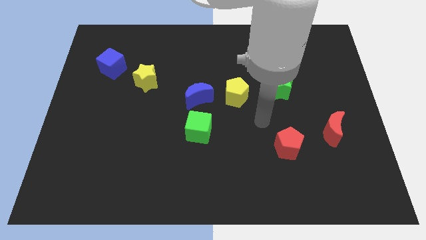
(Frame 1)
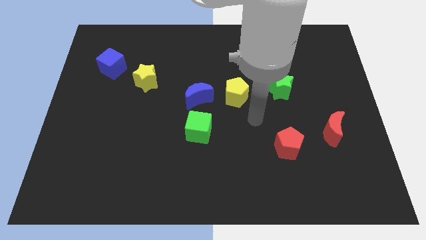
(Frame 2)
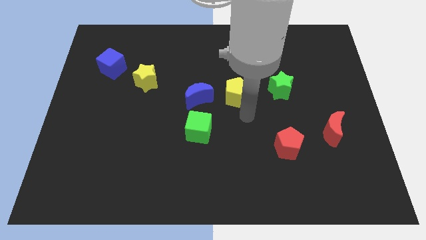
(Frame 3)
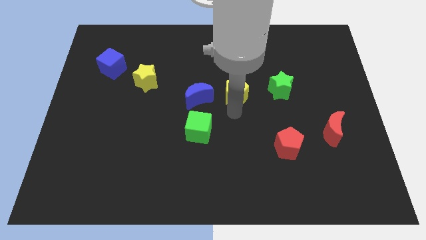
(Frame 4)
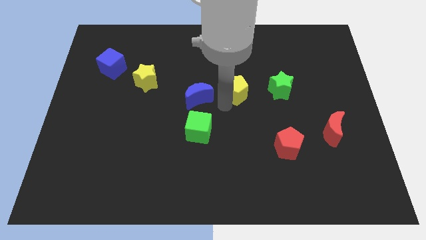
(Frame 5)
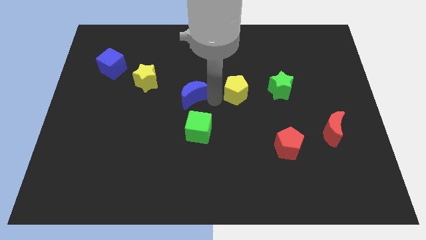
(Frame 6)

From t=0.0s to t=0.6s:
pull the yellow pentagon apart from the blue moon

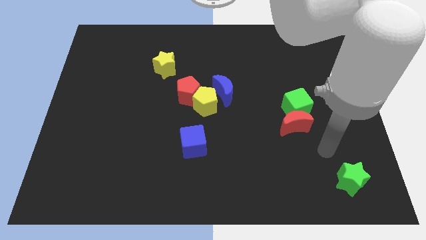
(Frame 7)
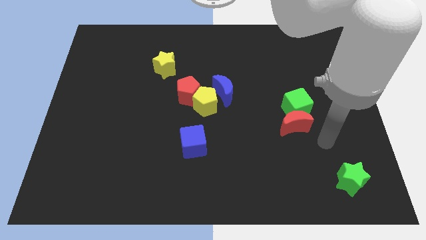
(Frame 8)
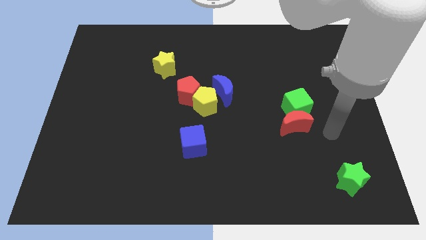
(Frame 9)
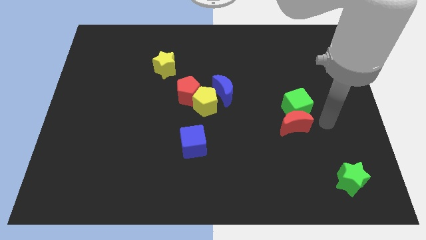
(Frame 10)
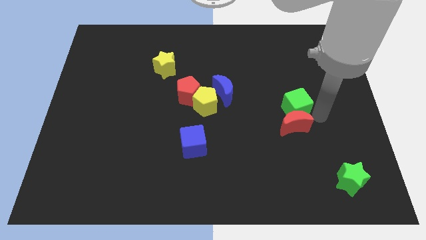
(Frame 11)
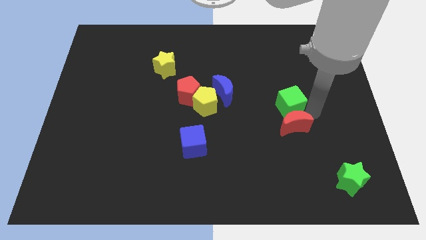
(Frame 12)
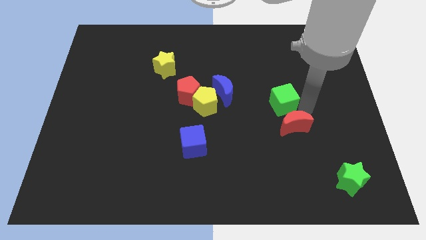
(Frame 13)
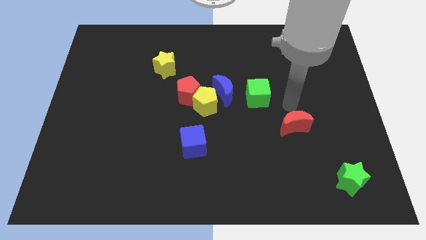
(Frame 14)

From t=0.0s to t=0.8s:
pull the red moon apart from the green cube

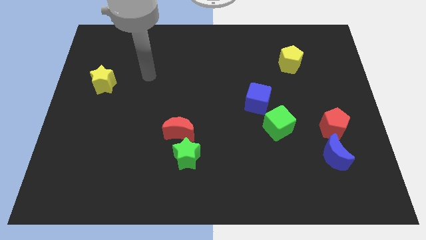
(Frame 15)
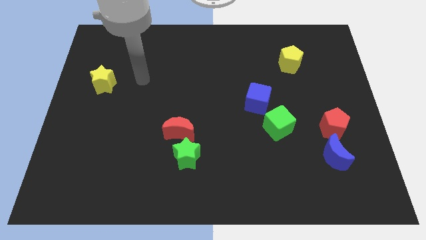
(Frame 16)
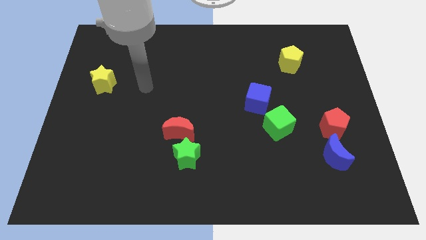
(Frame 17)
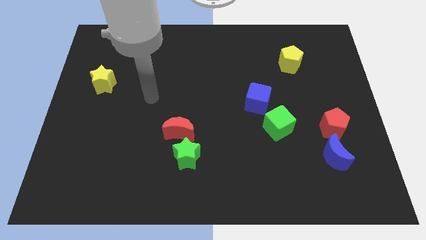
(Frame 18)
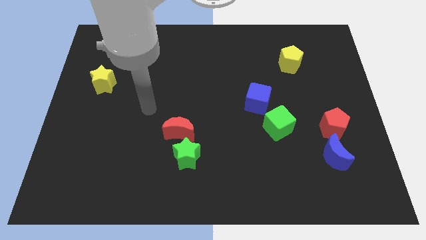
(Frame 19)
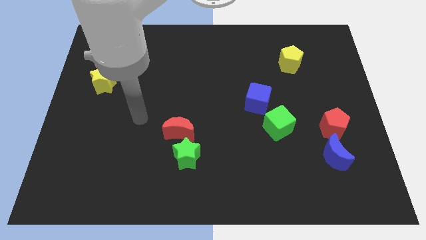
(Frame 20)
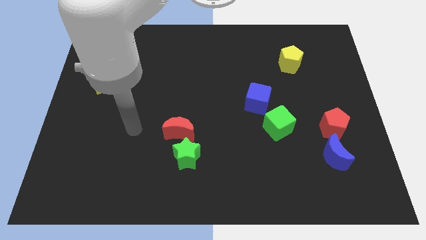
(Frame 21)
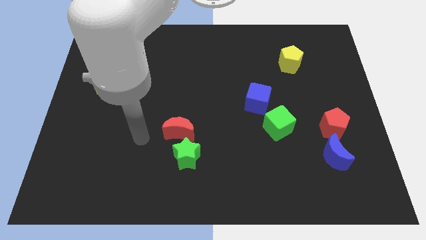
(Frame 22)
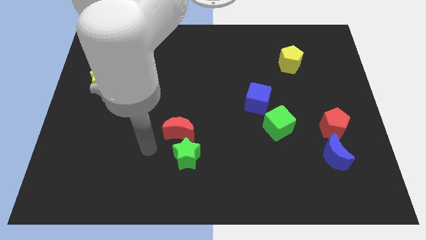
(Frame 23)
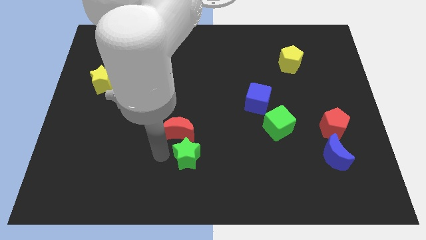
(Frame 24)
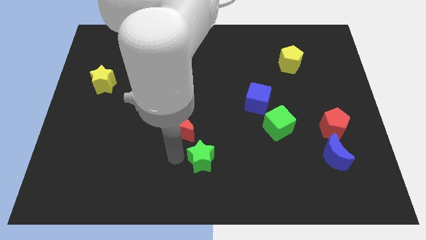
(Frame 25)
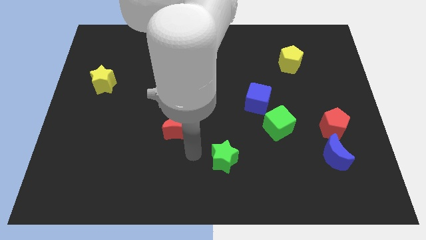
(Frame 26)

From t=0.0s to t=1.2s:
move the red moon away from the green star

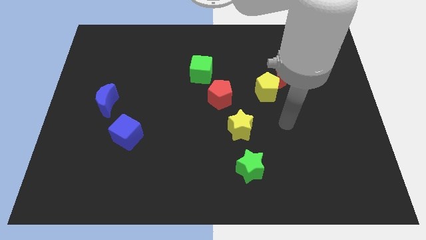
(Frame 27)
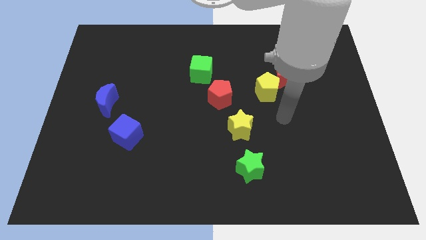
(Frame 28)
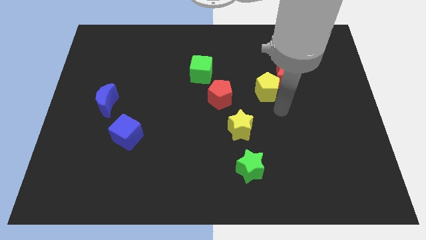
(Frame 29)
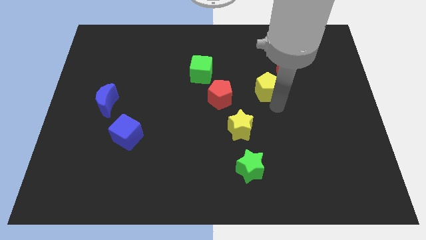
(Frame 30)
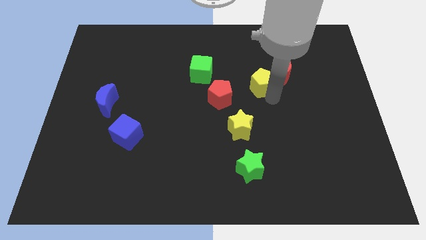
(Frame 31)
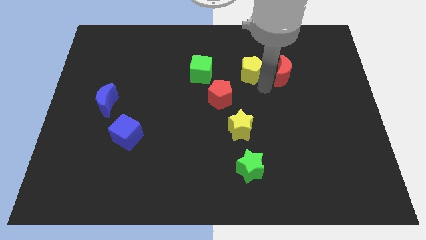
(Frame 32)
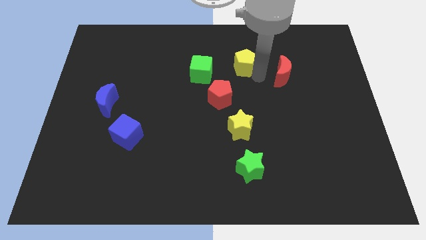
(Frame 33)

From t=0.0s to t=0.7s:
pull the red moon apart from the yellow pentagon

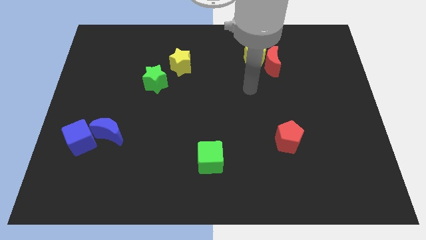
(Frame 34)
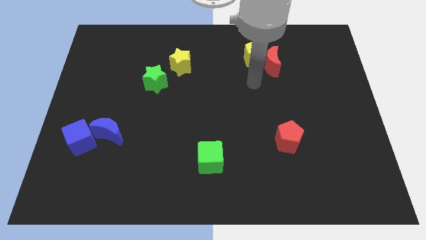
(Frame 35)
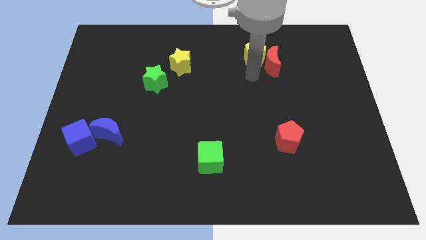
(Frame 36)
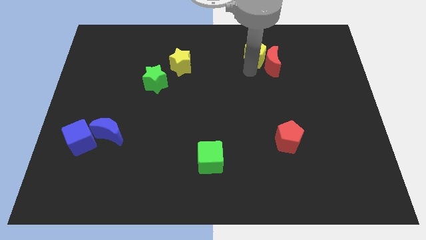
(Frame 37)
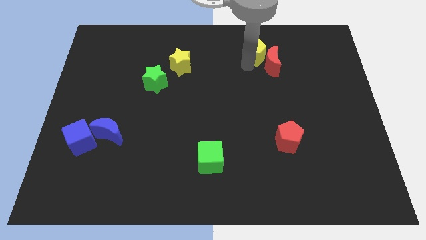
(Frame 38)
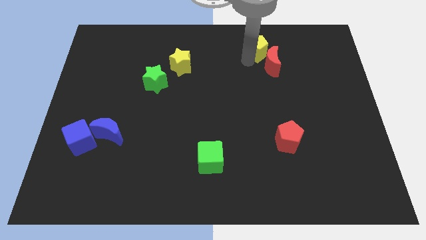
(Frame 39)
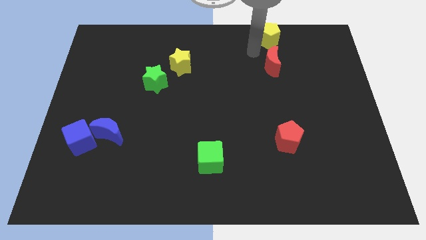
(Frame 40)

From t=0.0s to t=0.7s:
separate the red moon from the yellow pentagon

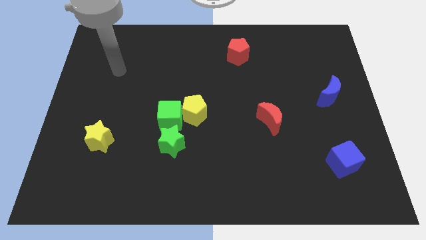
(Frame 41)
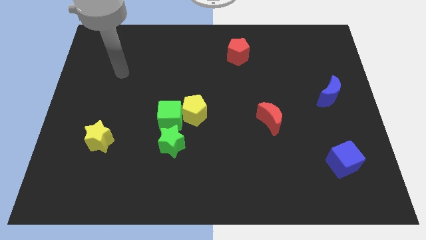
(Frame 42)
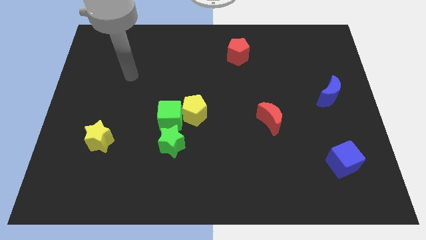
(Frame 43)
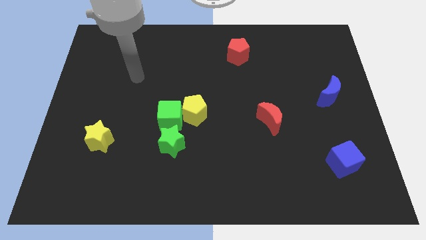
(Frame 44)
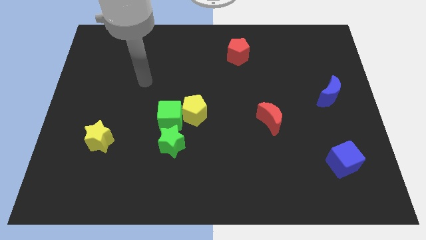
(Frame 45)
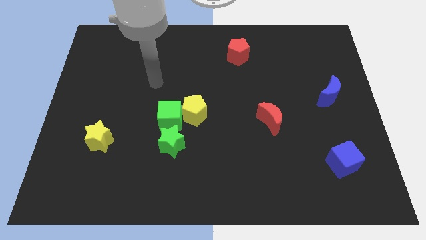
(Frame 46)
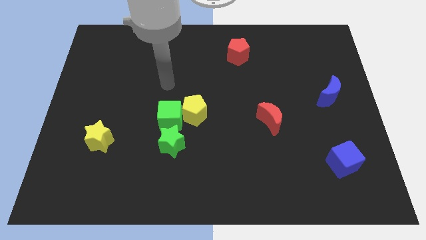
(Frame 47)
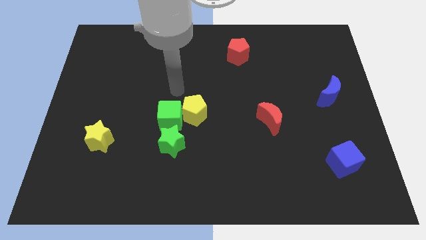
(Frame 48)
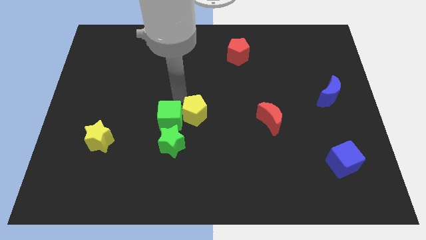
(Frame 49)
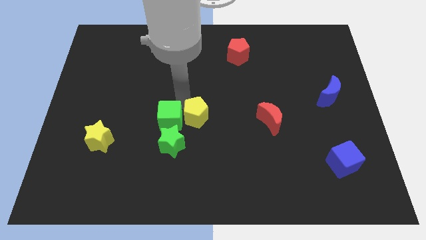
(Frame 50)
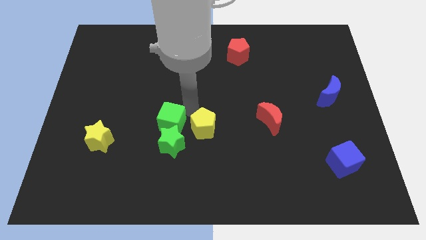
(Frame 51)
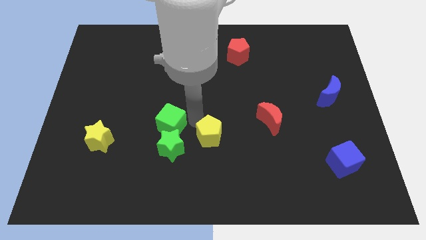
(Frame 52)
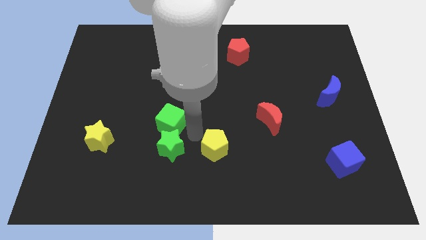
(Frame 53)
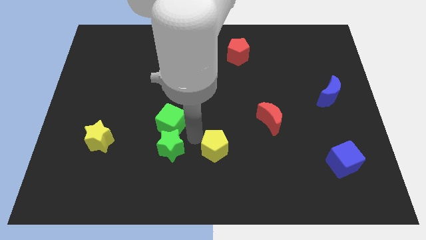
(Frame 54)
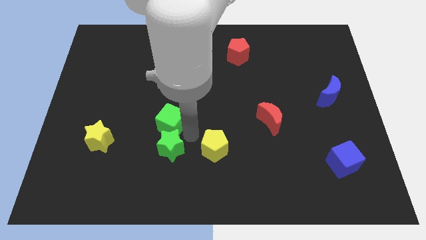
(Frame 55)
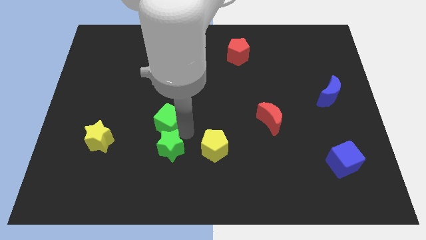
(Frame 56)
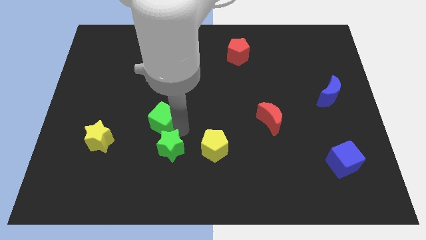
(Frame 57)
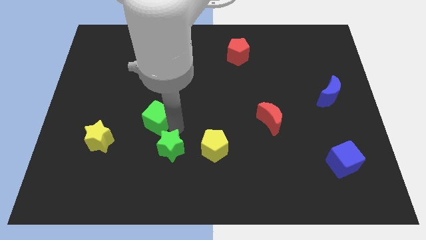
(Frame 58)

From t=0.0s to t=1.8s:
separate the green cube from the yellow pentagon and green star

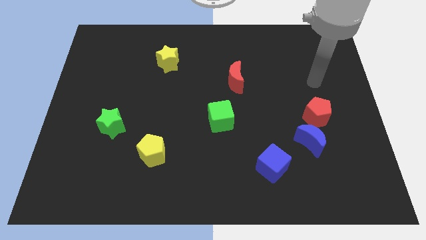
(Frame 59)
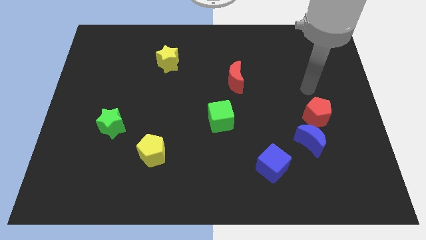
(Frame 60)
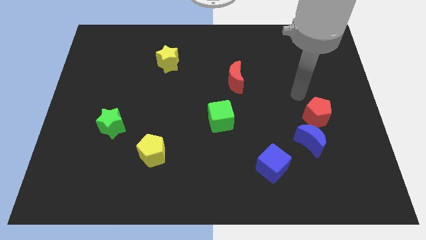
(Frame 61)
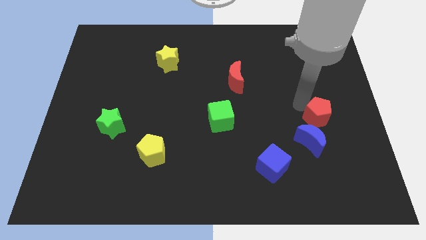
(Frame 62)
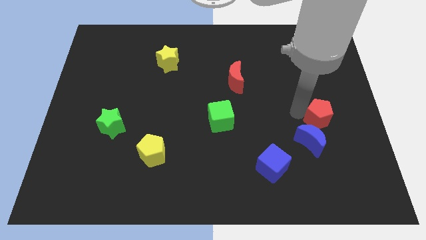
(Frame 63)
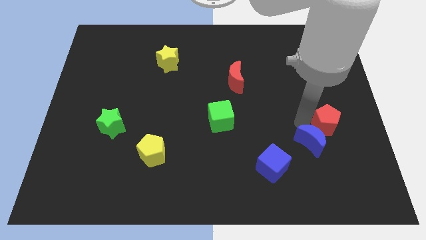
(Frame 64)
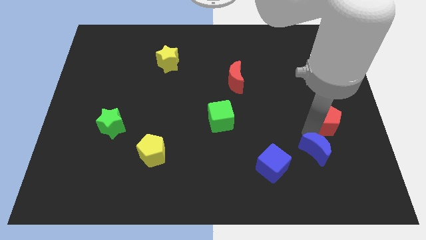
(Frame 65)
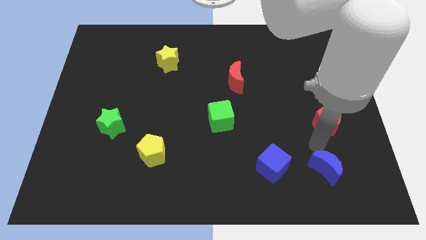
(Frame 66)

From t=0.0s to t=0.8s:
separate the red pentagon from the blue moon

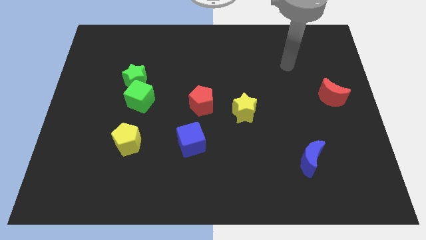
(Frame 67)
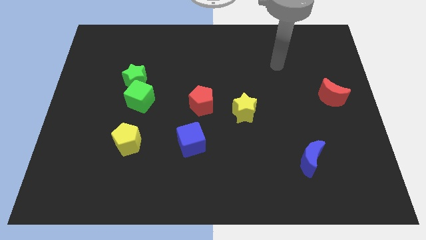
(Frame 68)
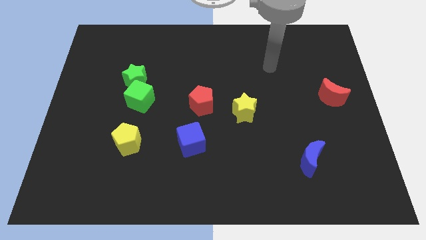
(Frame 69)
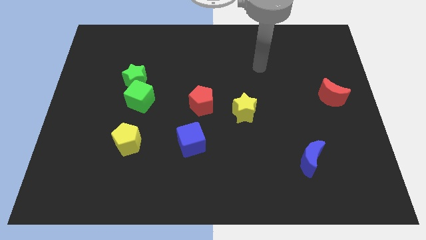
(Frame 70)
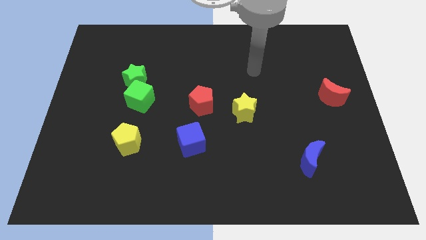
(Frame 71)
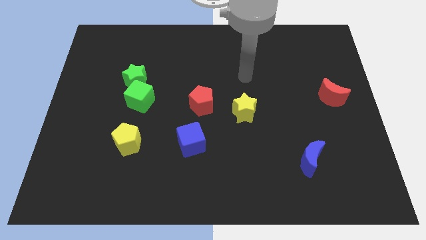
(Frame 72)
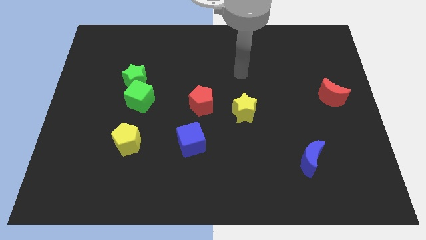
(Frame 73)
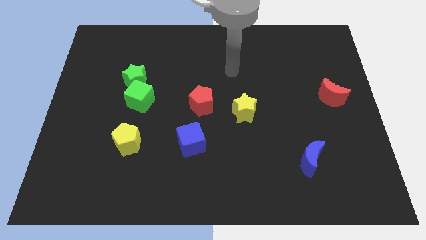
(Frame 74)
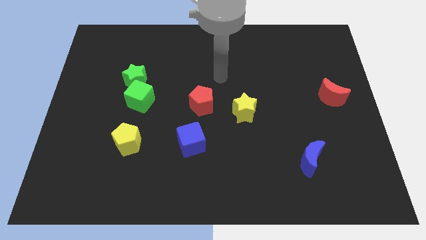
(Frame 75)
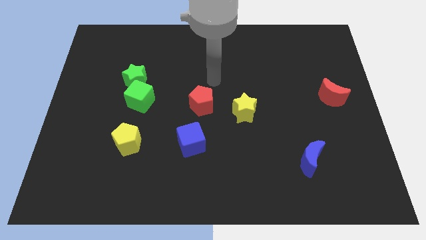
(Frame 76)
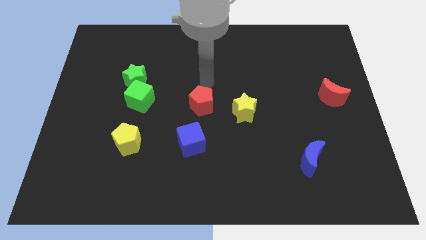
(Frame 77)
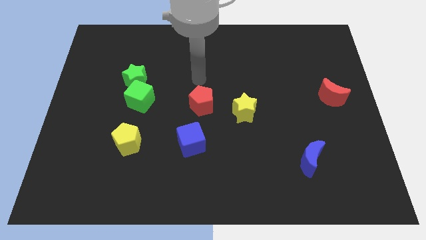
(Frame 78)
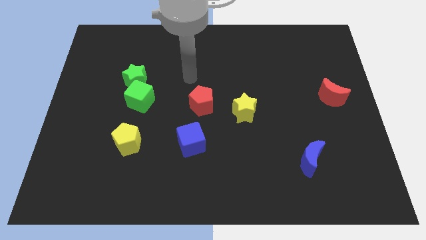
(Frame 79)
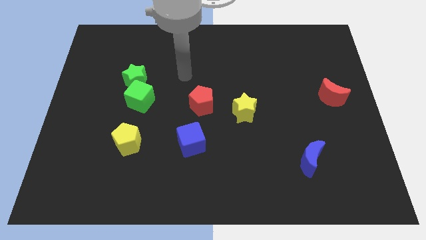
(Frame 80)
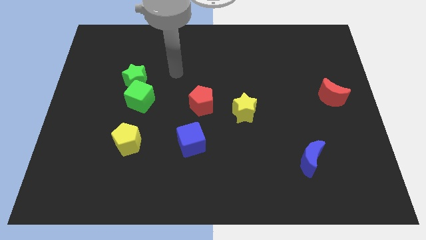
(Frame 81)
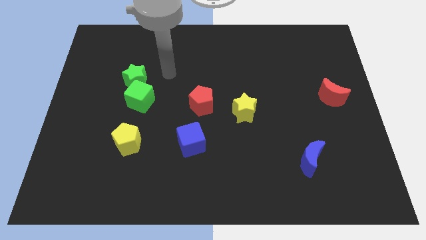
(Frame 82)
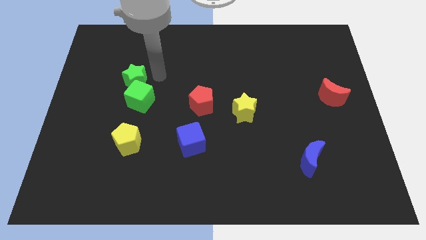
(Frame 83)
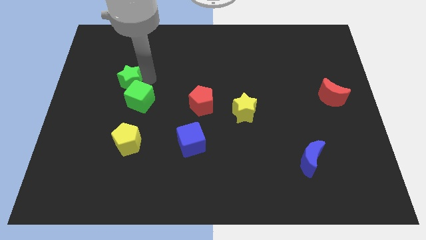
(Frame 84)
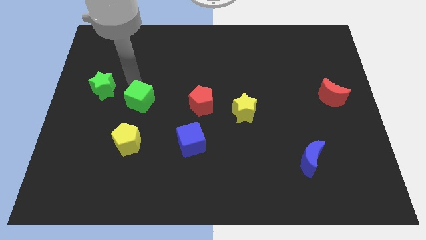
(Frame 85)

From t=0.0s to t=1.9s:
pull the green cube apart from the green star

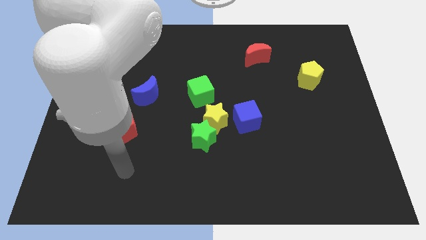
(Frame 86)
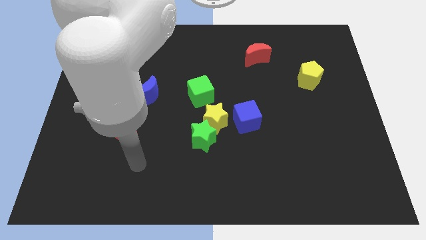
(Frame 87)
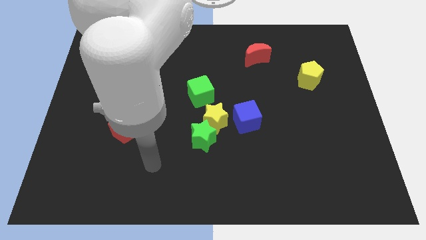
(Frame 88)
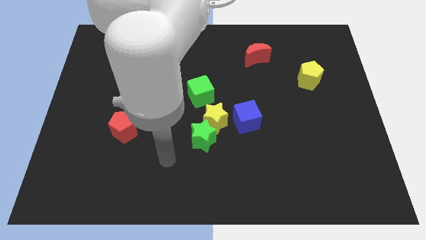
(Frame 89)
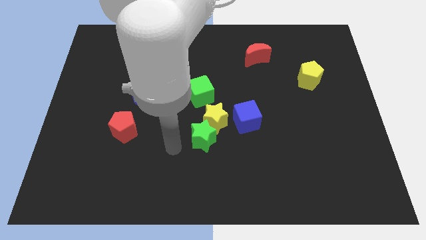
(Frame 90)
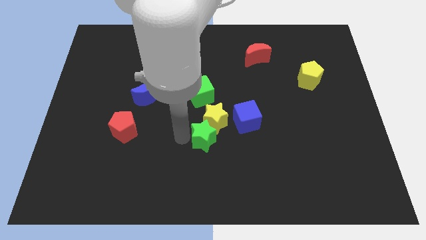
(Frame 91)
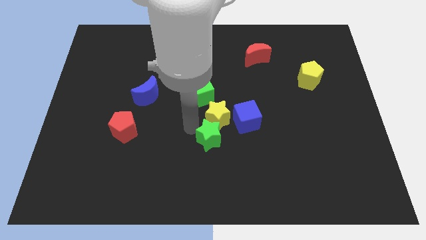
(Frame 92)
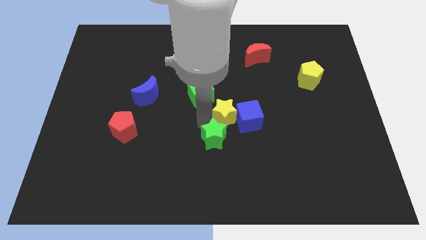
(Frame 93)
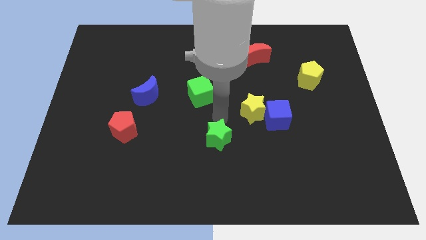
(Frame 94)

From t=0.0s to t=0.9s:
separate the green star from the yellow star
